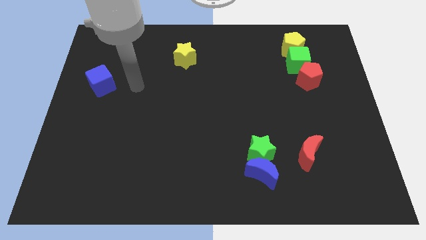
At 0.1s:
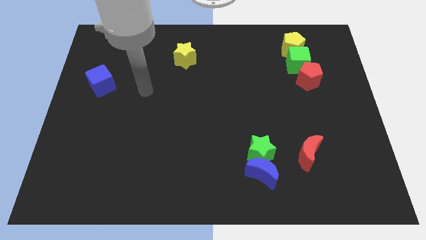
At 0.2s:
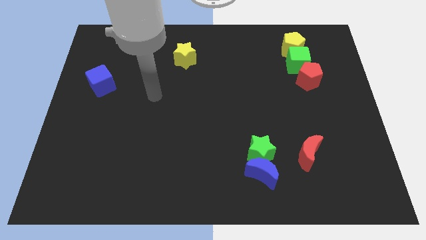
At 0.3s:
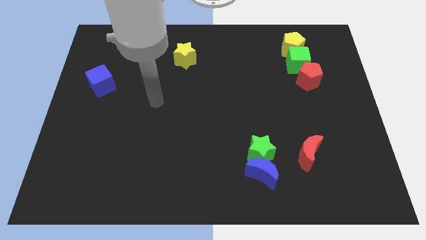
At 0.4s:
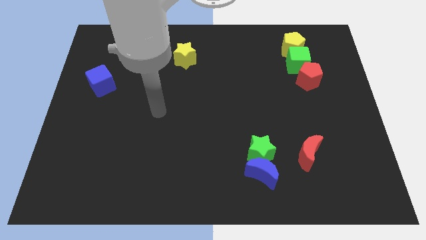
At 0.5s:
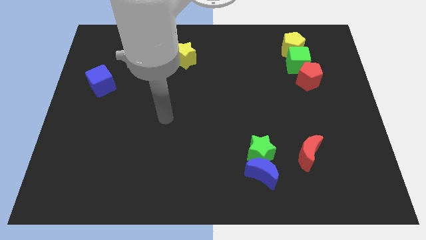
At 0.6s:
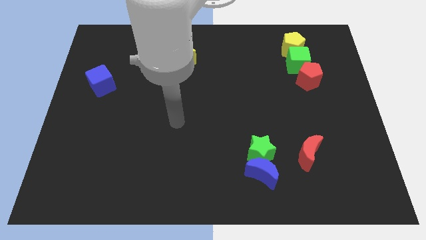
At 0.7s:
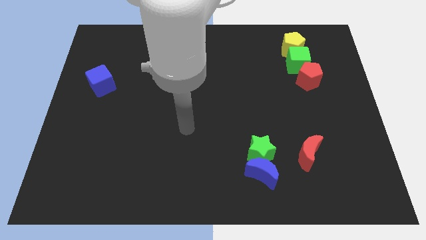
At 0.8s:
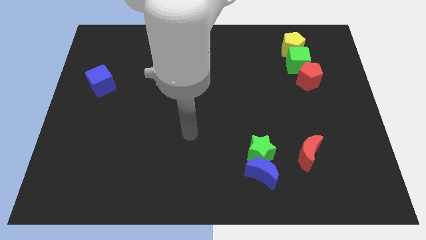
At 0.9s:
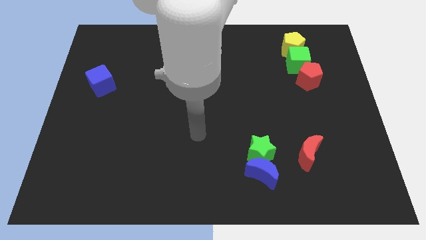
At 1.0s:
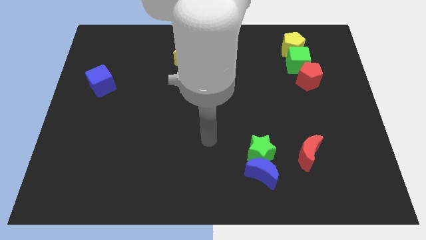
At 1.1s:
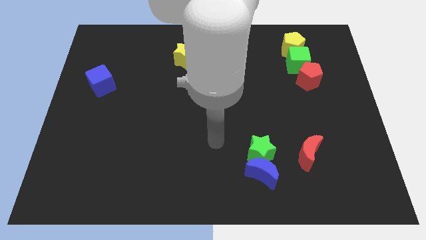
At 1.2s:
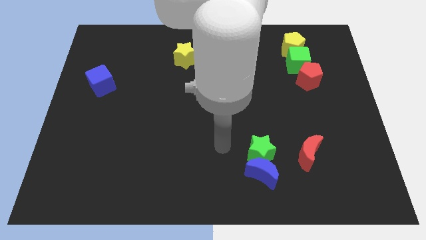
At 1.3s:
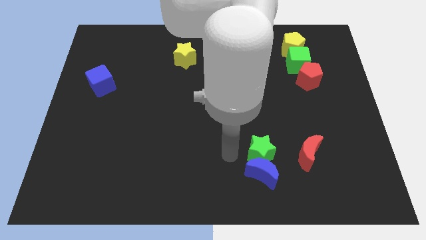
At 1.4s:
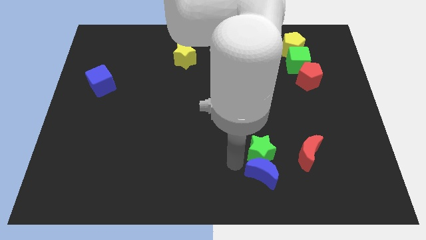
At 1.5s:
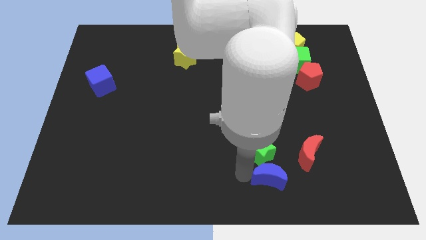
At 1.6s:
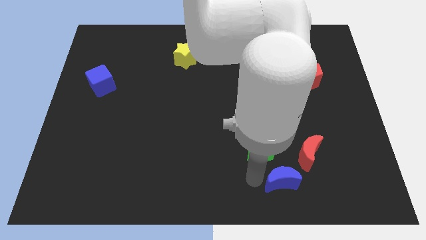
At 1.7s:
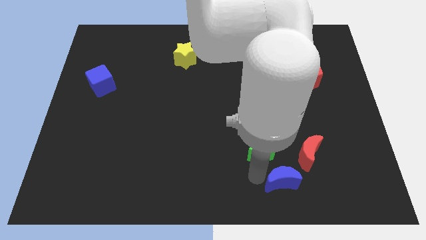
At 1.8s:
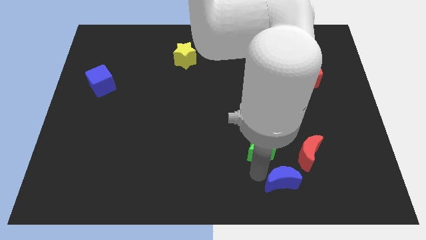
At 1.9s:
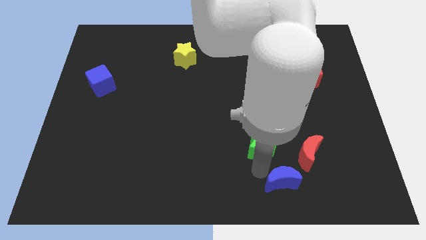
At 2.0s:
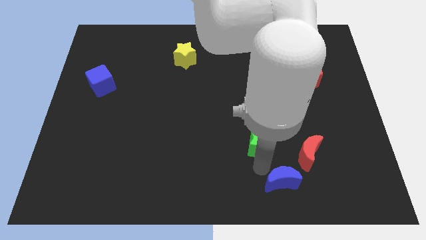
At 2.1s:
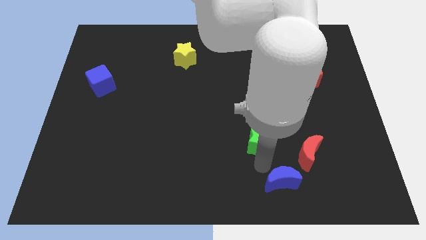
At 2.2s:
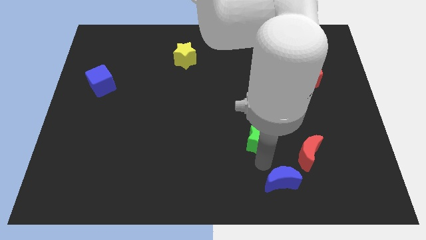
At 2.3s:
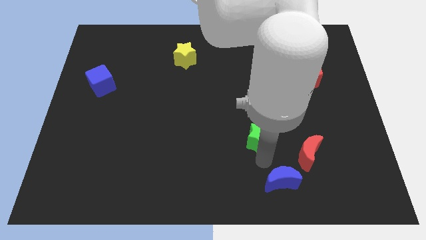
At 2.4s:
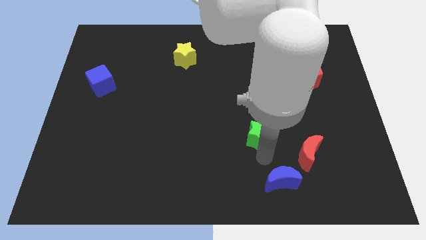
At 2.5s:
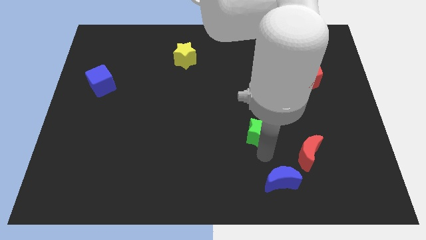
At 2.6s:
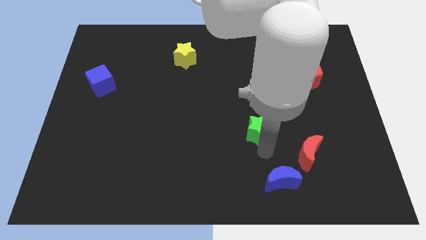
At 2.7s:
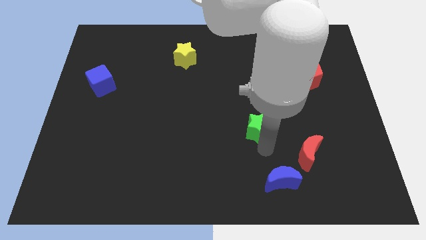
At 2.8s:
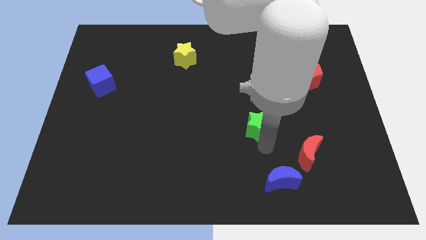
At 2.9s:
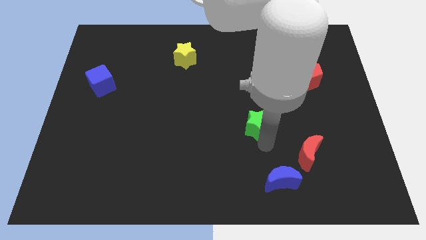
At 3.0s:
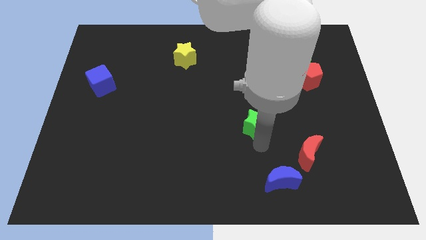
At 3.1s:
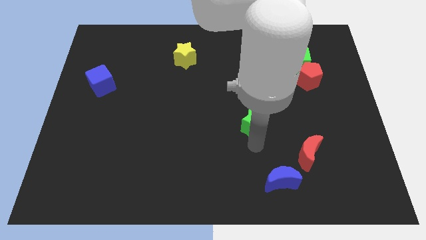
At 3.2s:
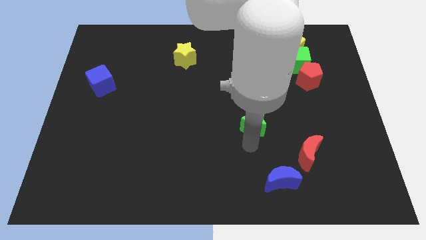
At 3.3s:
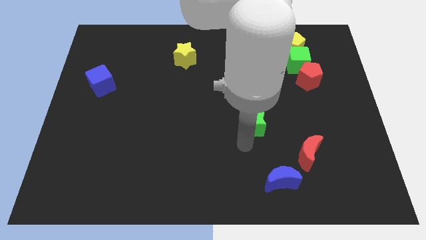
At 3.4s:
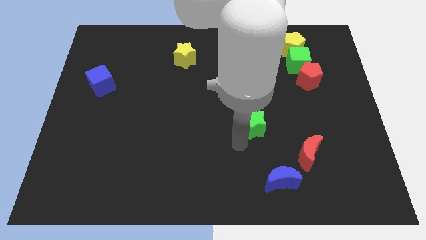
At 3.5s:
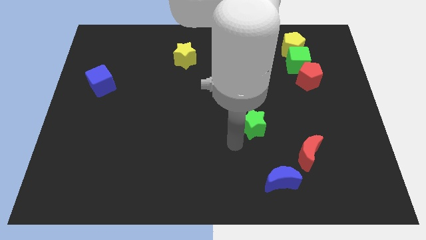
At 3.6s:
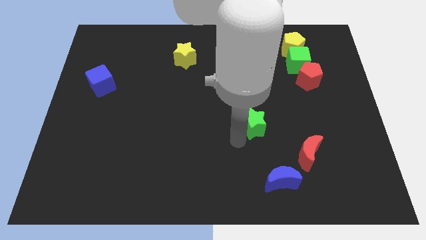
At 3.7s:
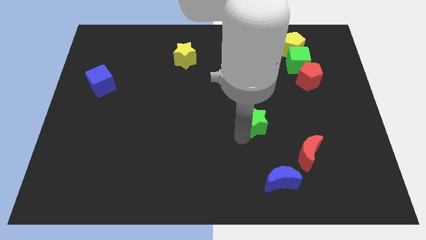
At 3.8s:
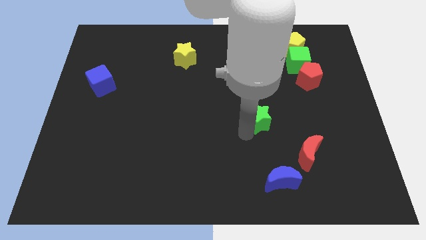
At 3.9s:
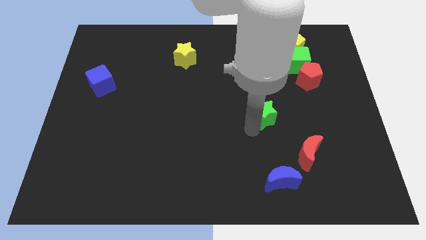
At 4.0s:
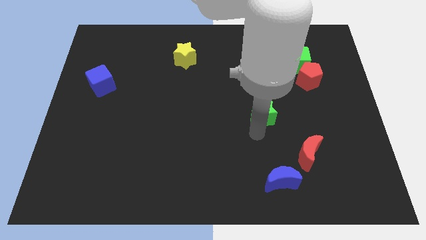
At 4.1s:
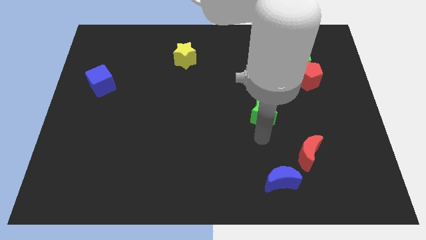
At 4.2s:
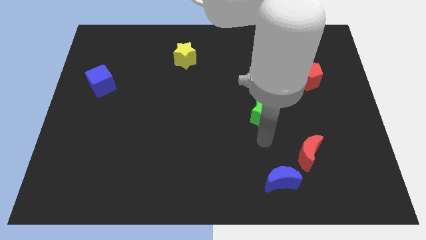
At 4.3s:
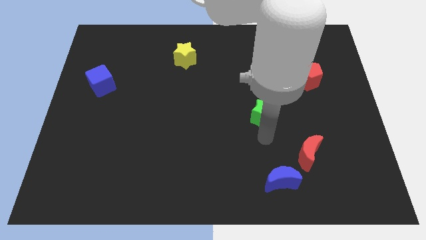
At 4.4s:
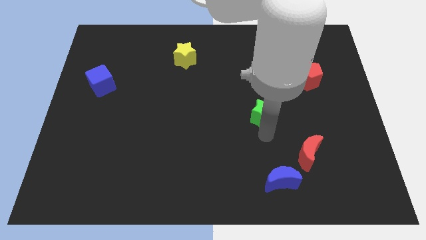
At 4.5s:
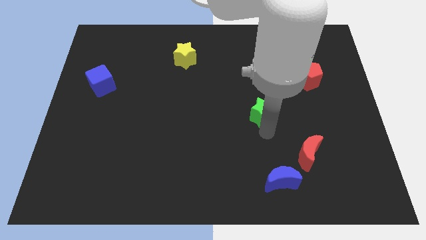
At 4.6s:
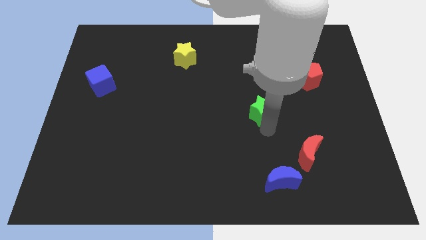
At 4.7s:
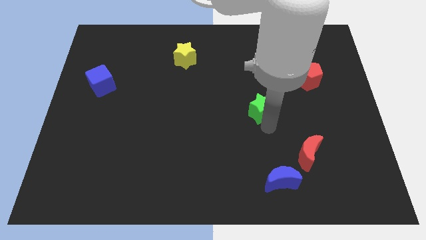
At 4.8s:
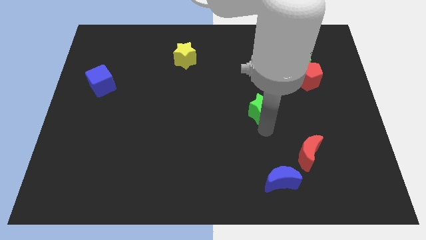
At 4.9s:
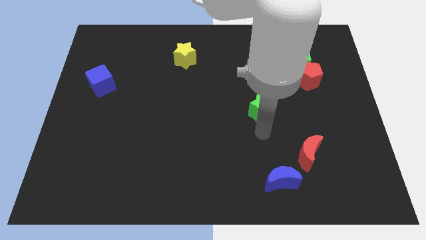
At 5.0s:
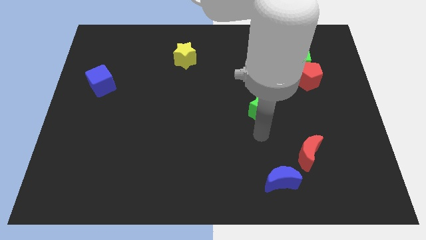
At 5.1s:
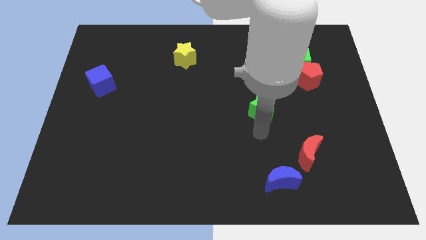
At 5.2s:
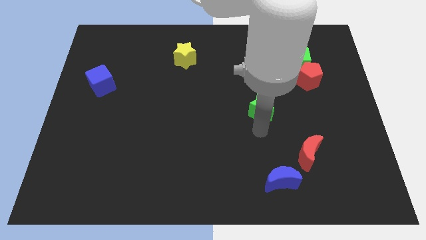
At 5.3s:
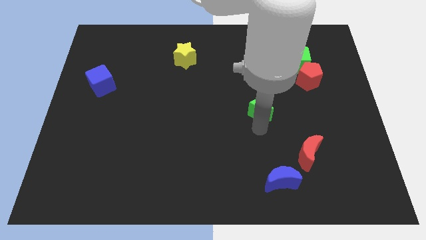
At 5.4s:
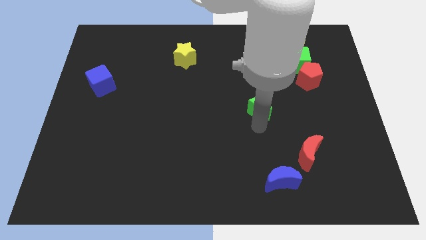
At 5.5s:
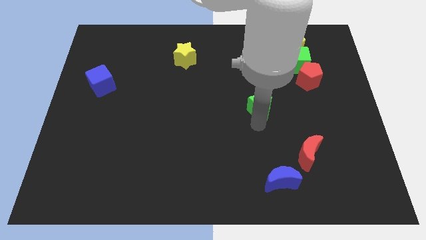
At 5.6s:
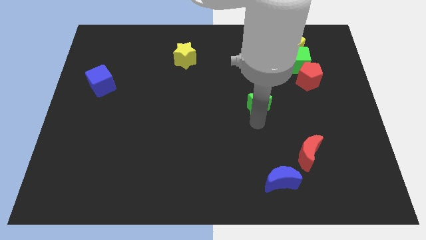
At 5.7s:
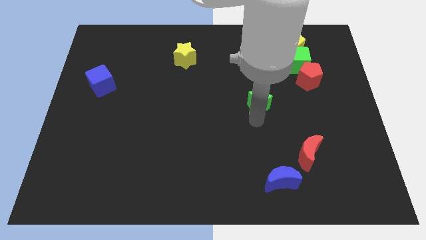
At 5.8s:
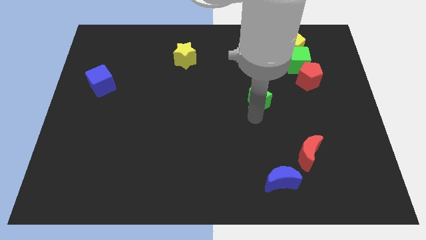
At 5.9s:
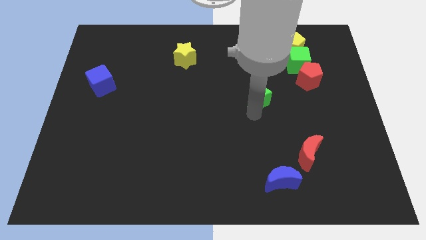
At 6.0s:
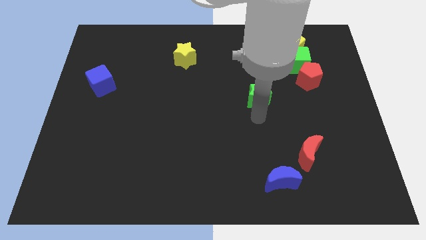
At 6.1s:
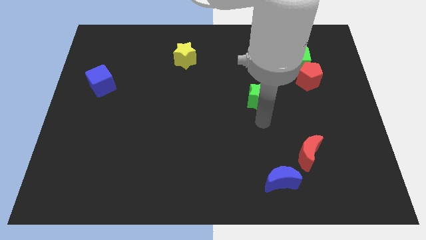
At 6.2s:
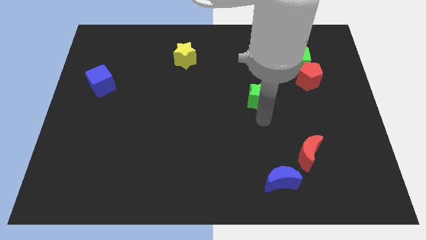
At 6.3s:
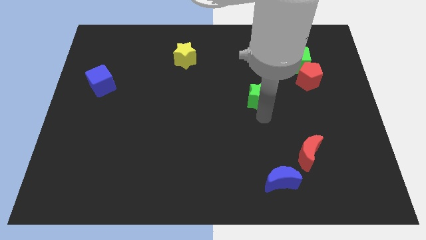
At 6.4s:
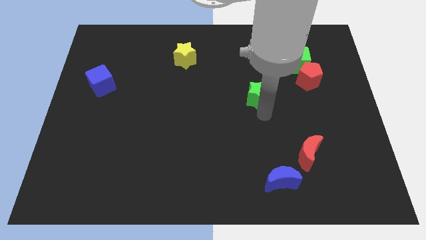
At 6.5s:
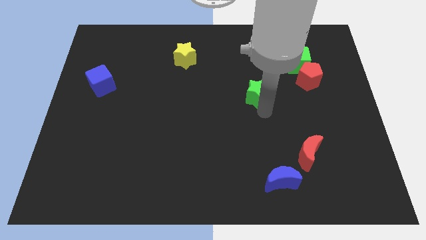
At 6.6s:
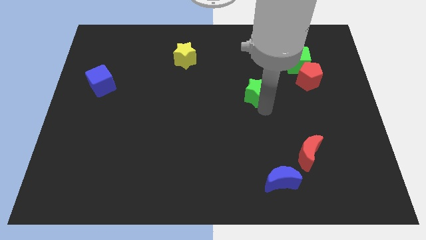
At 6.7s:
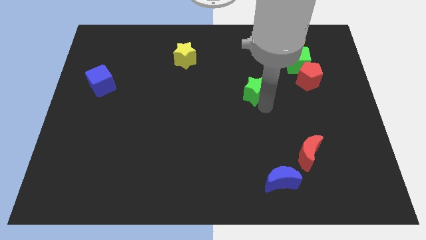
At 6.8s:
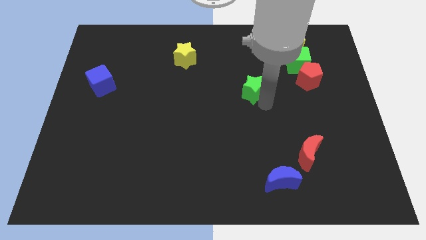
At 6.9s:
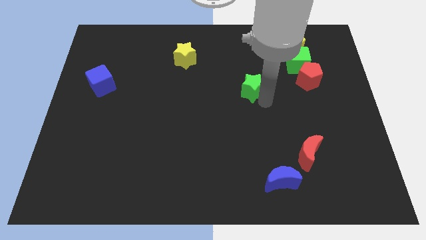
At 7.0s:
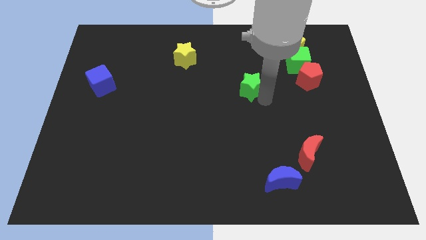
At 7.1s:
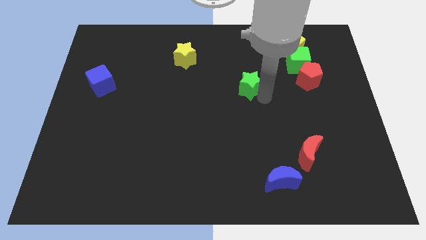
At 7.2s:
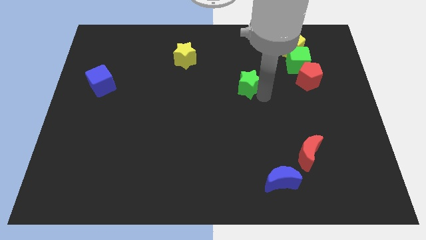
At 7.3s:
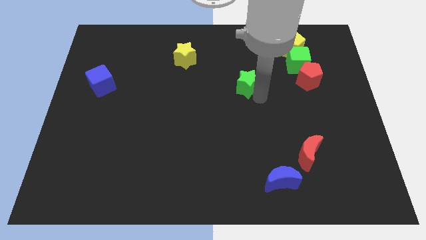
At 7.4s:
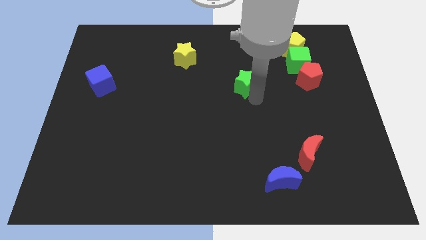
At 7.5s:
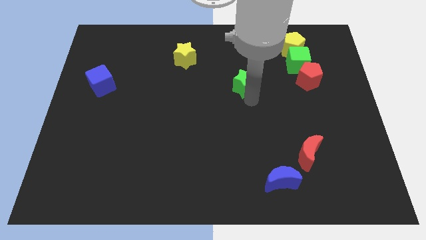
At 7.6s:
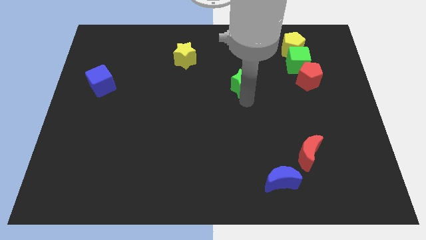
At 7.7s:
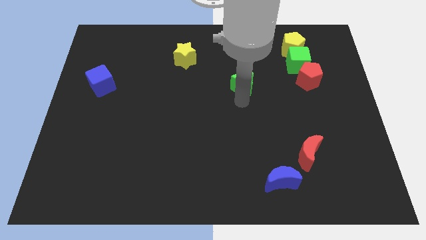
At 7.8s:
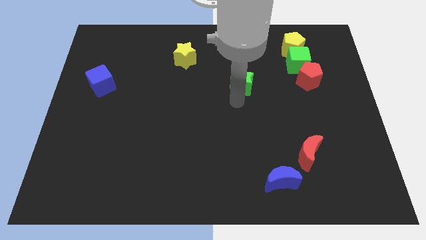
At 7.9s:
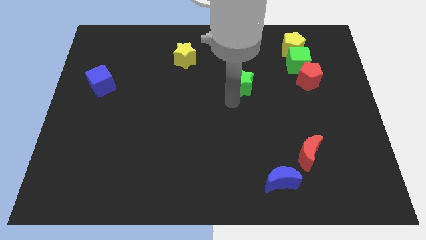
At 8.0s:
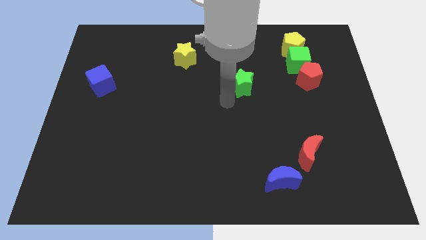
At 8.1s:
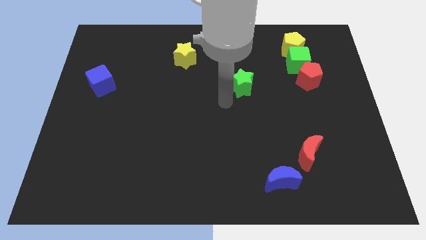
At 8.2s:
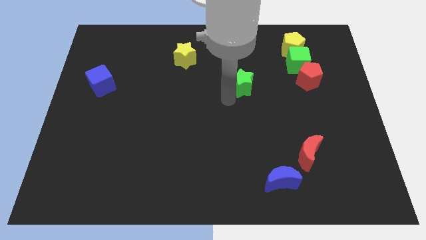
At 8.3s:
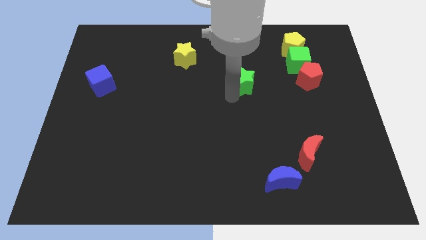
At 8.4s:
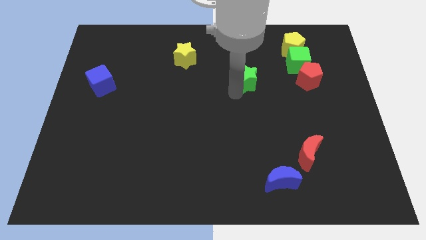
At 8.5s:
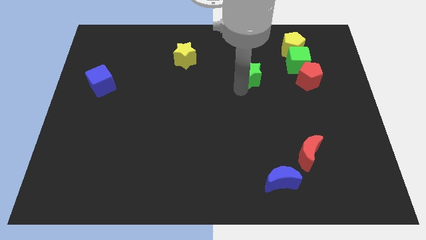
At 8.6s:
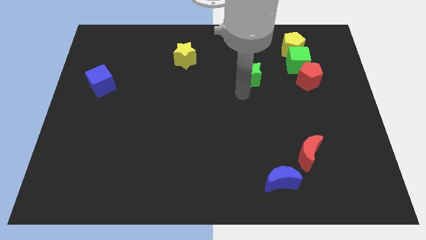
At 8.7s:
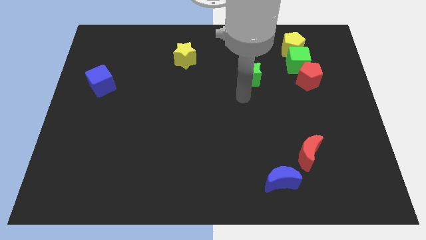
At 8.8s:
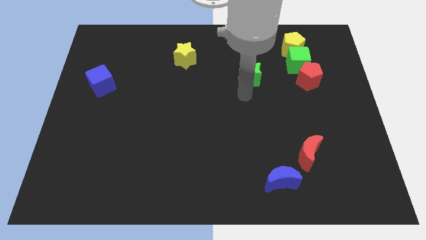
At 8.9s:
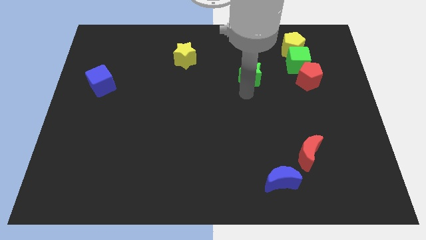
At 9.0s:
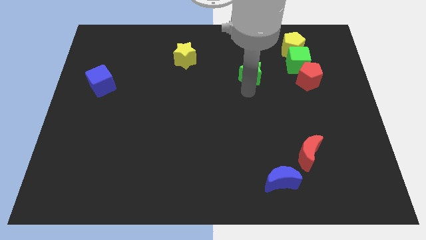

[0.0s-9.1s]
move the green star left of the green cube
